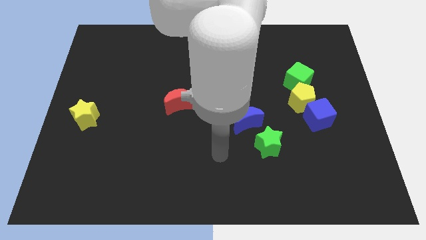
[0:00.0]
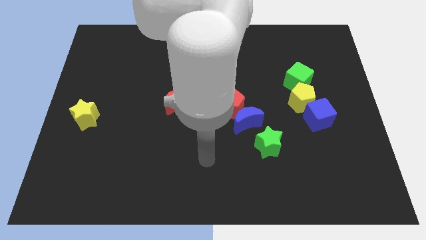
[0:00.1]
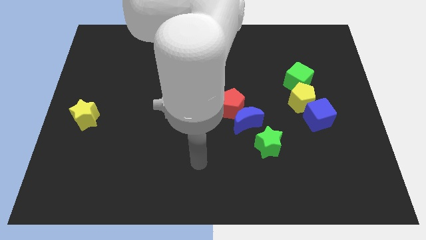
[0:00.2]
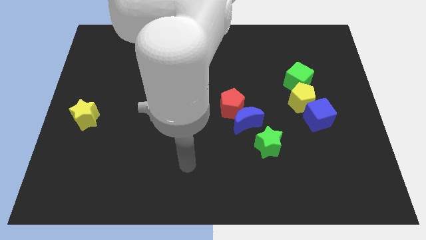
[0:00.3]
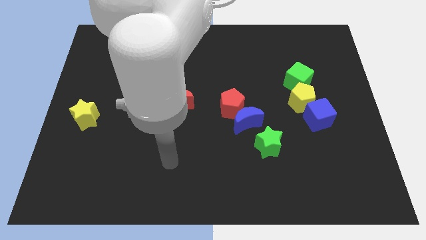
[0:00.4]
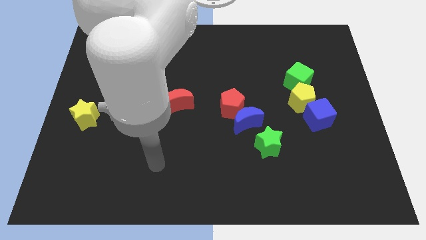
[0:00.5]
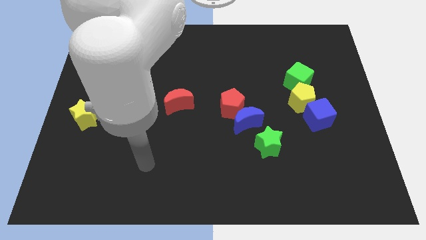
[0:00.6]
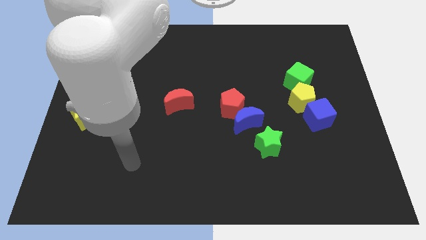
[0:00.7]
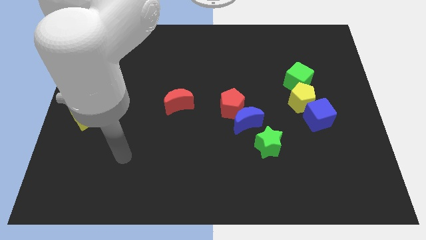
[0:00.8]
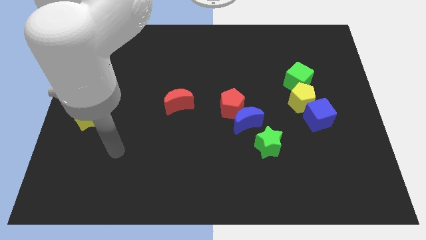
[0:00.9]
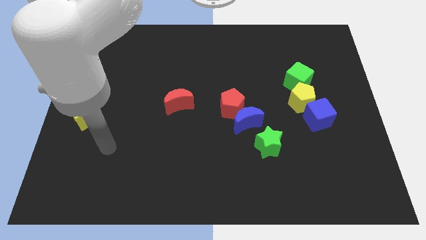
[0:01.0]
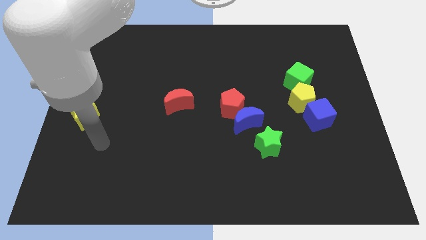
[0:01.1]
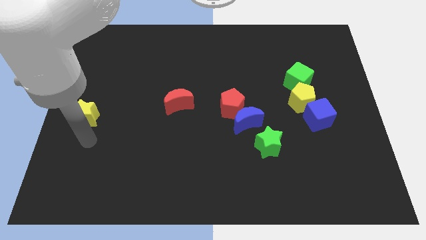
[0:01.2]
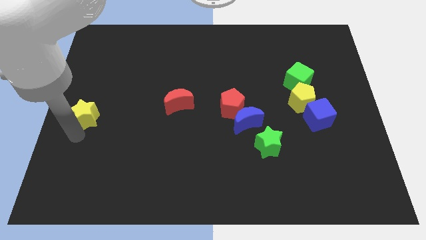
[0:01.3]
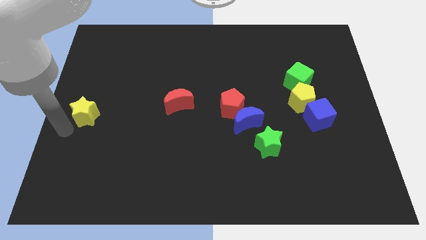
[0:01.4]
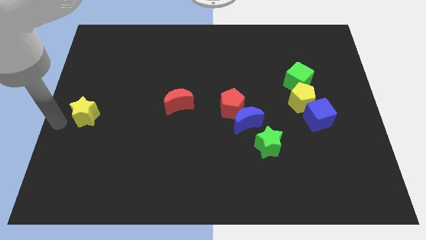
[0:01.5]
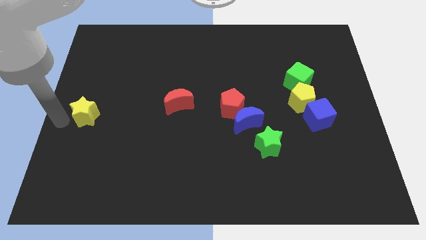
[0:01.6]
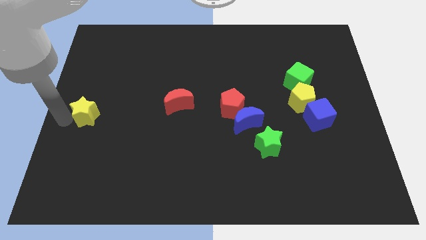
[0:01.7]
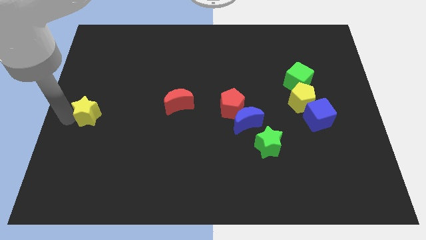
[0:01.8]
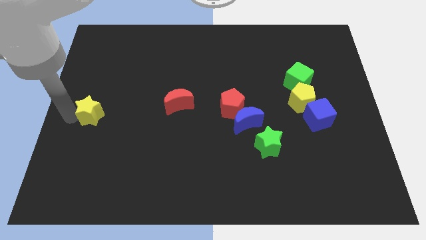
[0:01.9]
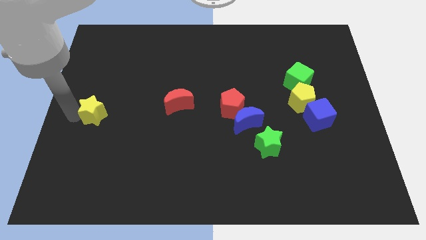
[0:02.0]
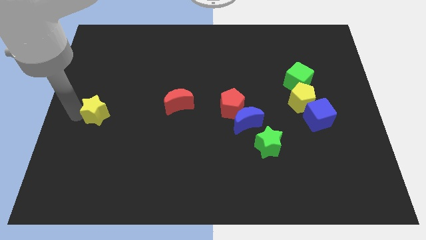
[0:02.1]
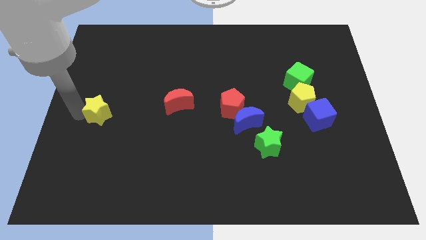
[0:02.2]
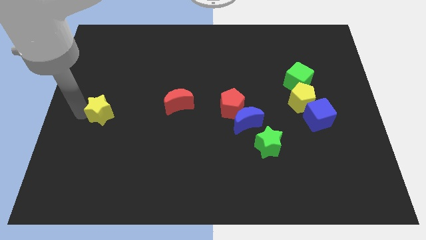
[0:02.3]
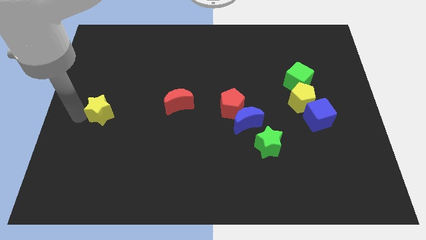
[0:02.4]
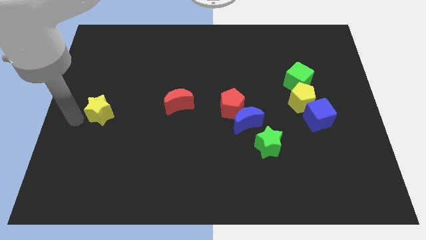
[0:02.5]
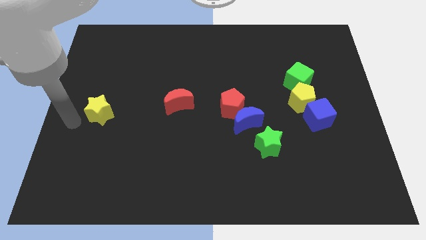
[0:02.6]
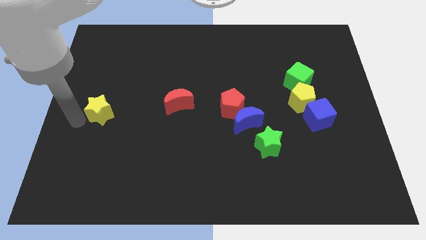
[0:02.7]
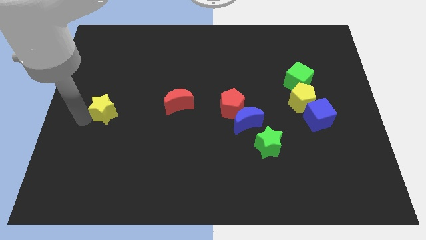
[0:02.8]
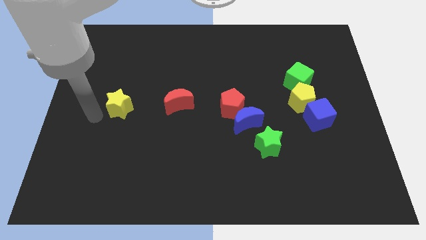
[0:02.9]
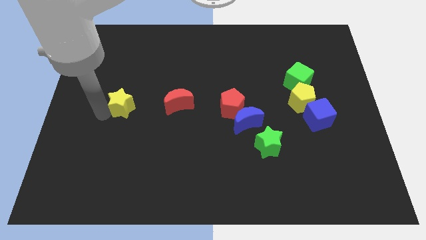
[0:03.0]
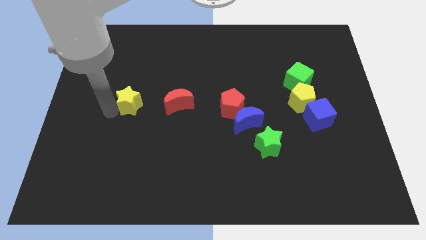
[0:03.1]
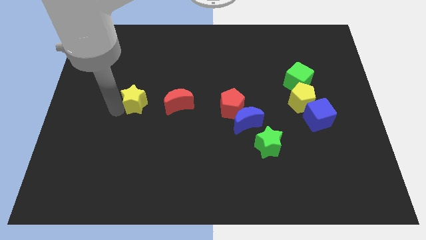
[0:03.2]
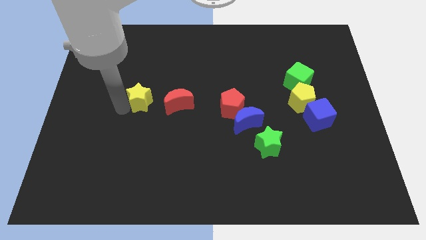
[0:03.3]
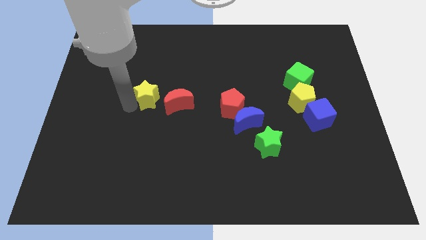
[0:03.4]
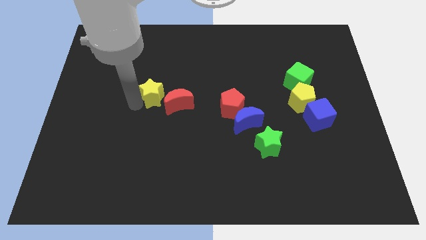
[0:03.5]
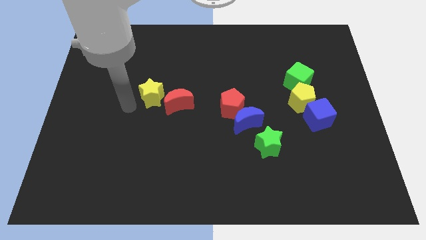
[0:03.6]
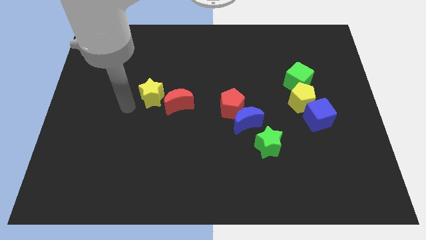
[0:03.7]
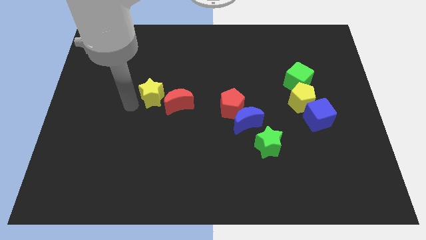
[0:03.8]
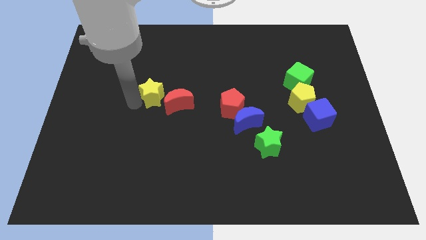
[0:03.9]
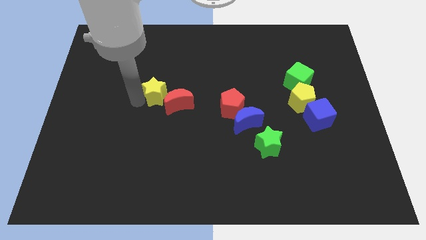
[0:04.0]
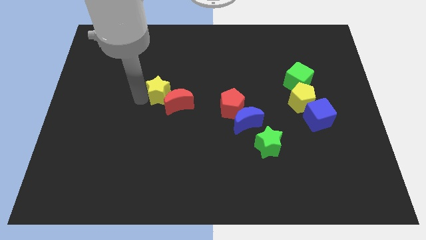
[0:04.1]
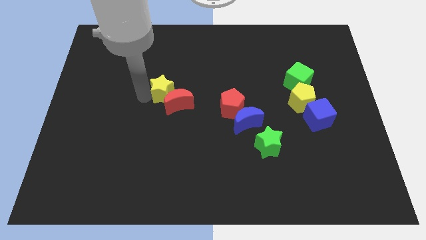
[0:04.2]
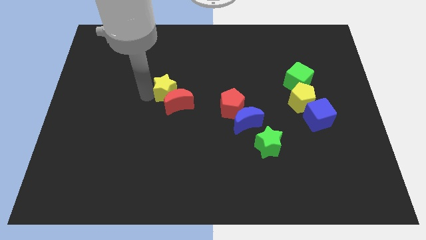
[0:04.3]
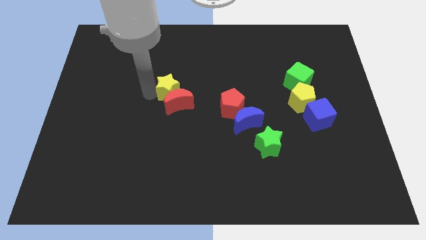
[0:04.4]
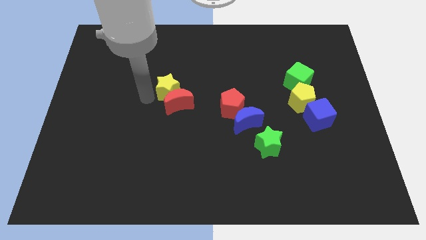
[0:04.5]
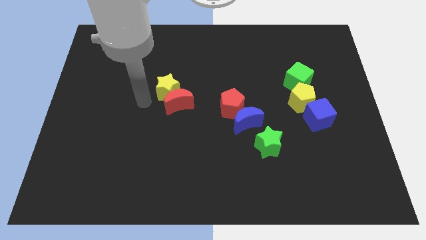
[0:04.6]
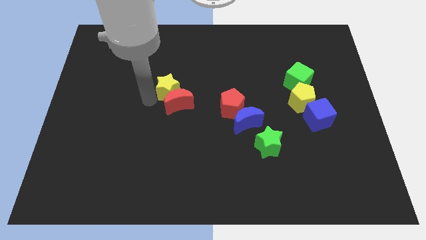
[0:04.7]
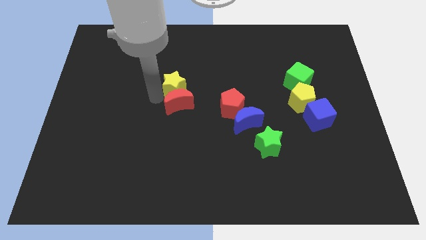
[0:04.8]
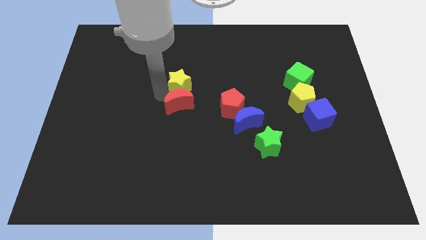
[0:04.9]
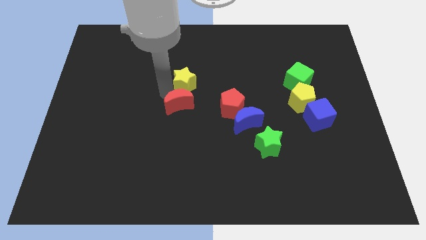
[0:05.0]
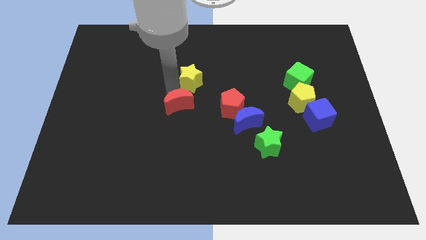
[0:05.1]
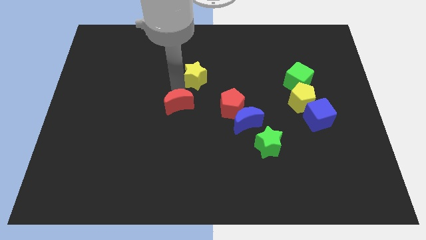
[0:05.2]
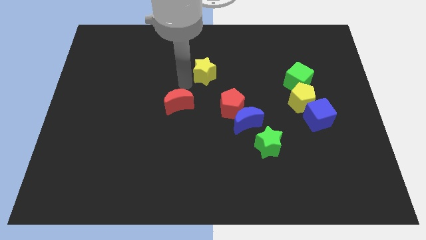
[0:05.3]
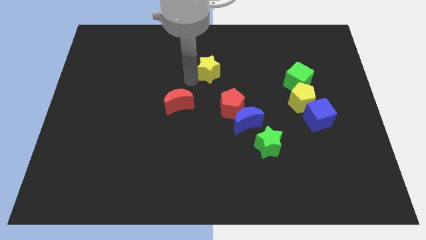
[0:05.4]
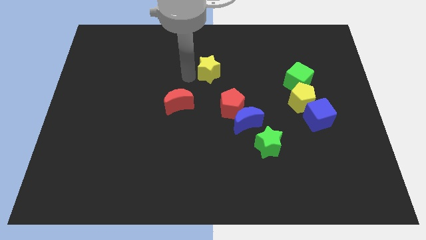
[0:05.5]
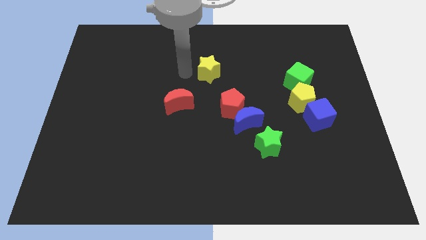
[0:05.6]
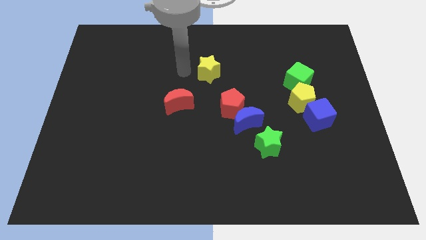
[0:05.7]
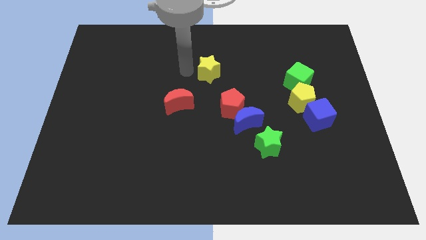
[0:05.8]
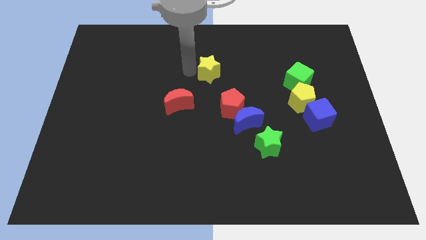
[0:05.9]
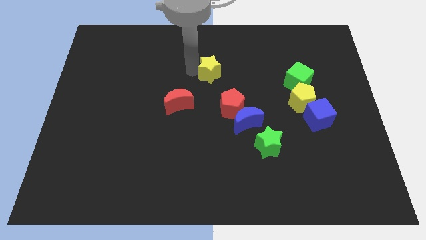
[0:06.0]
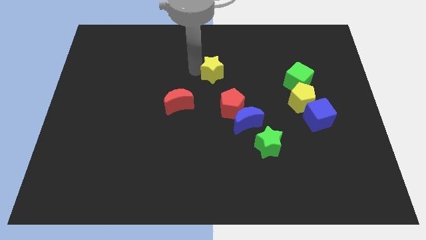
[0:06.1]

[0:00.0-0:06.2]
slide the yellow star to the top side of the red pentagon

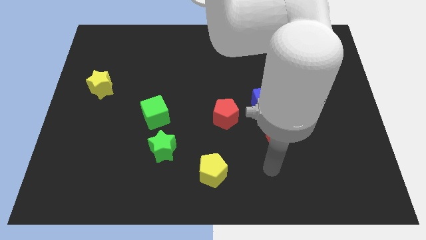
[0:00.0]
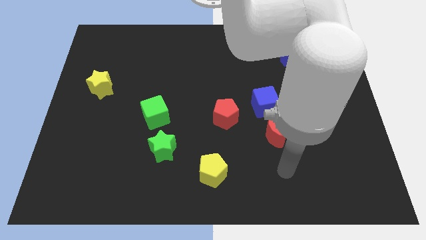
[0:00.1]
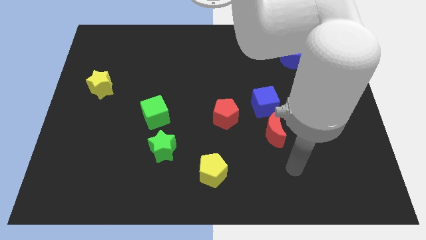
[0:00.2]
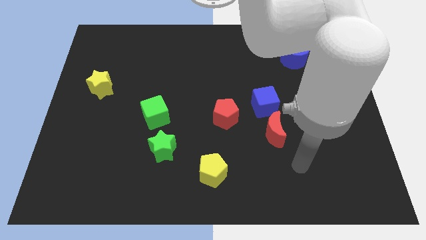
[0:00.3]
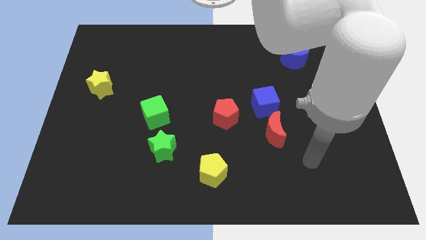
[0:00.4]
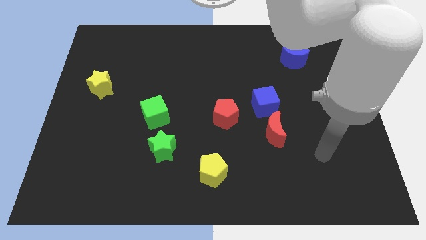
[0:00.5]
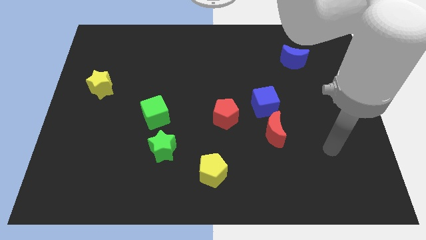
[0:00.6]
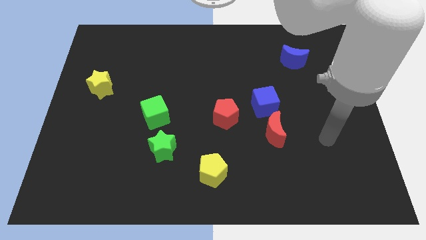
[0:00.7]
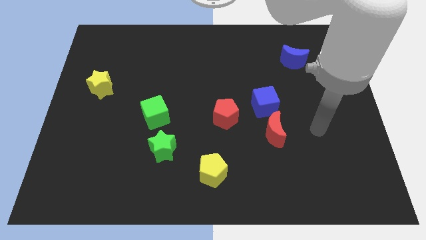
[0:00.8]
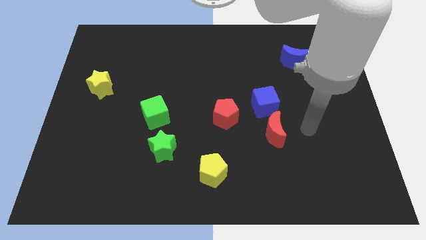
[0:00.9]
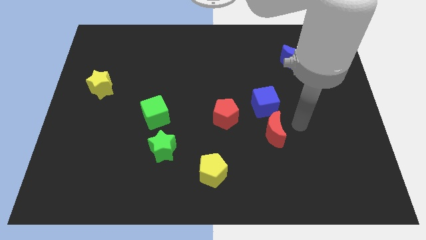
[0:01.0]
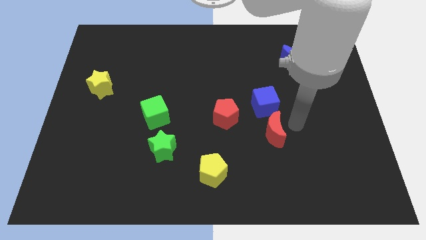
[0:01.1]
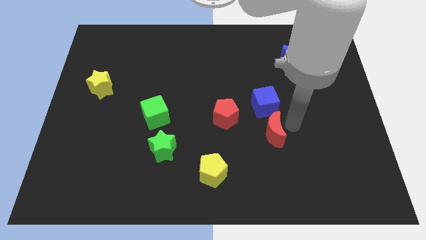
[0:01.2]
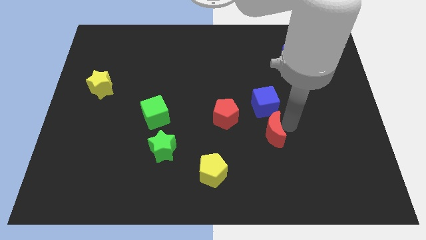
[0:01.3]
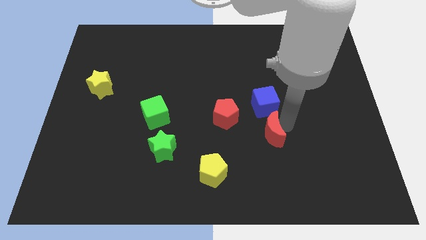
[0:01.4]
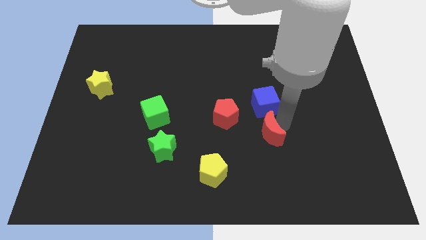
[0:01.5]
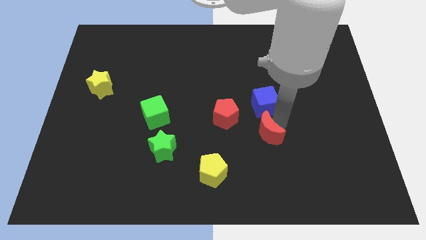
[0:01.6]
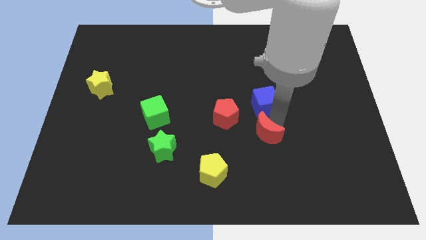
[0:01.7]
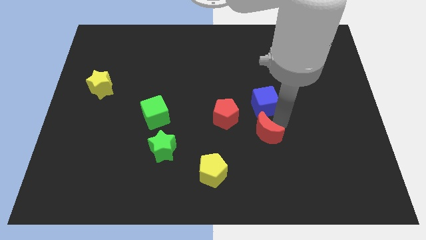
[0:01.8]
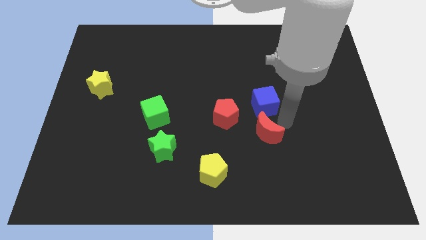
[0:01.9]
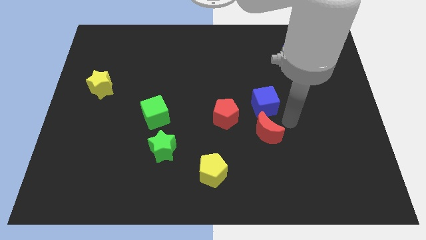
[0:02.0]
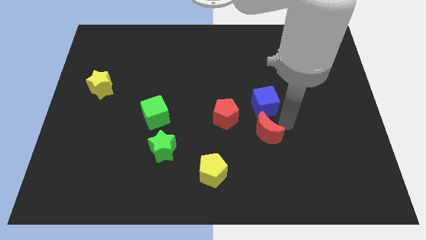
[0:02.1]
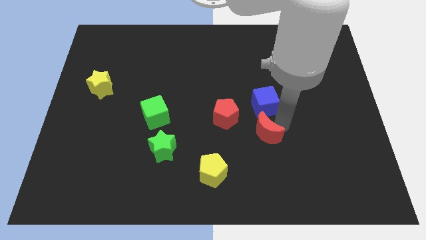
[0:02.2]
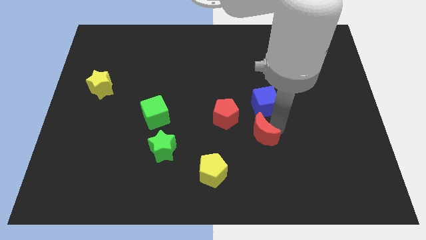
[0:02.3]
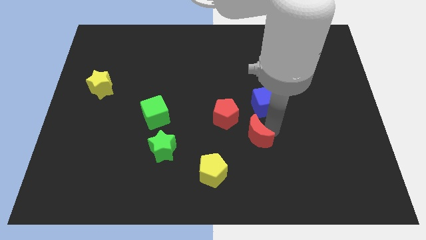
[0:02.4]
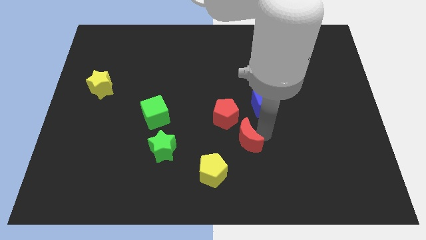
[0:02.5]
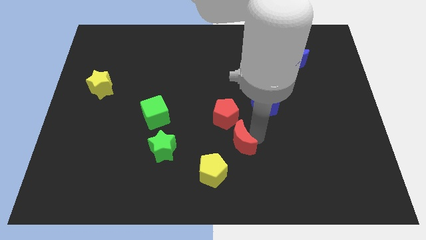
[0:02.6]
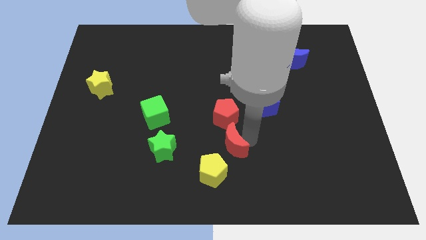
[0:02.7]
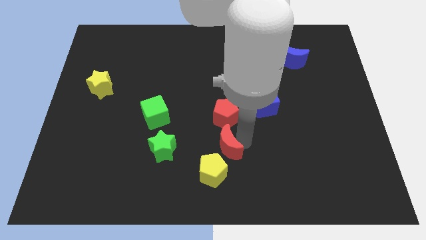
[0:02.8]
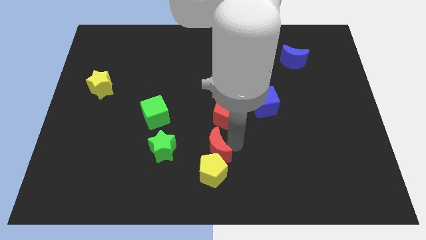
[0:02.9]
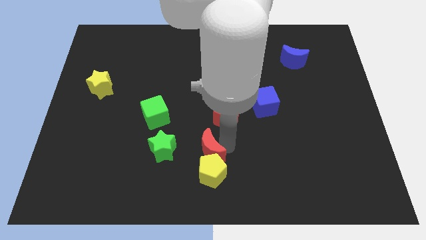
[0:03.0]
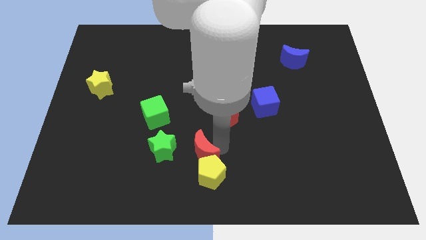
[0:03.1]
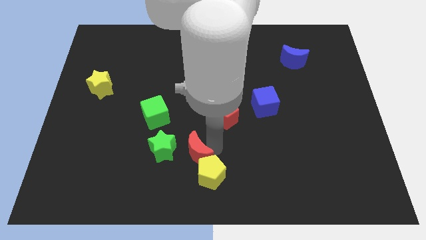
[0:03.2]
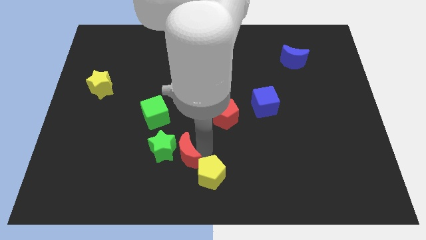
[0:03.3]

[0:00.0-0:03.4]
move the red moon to the left side of the yellow pentagon
